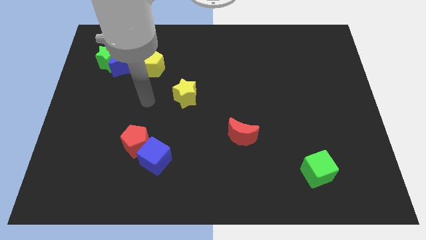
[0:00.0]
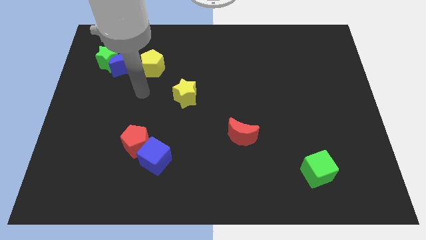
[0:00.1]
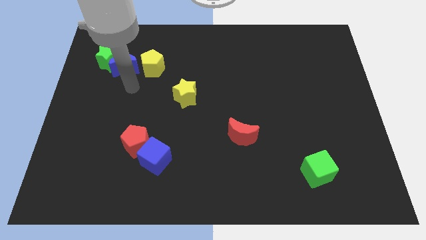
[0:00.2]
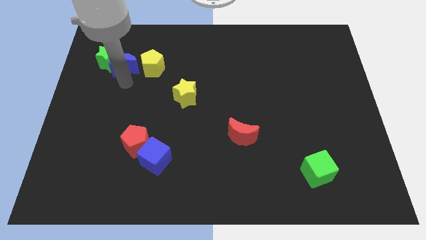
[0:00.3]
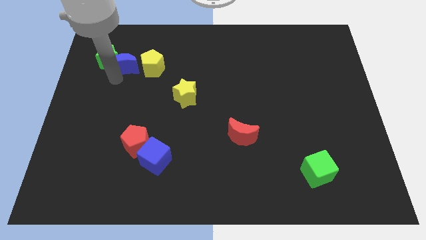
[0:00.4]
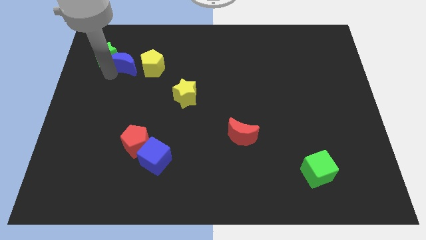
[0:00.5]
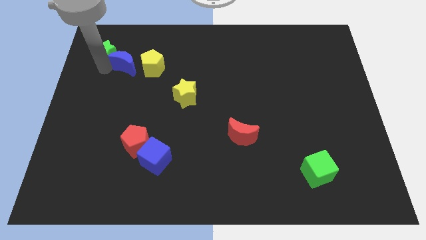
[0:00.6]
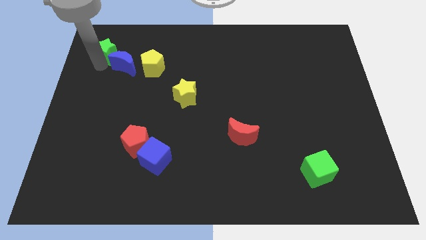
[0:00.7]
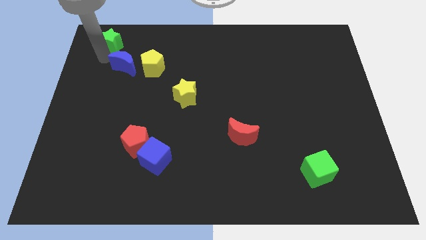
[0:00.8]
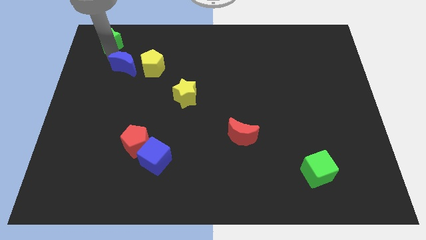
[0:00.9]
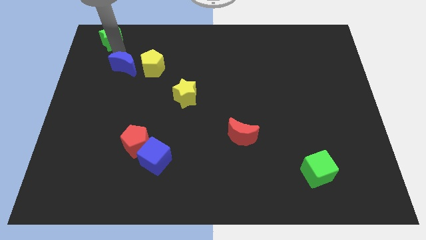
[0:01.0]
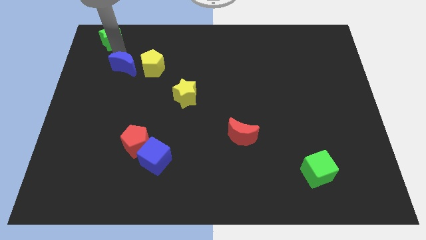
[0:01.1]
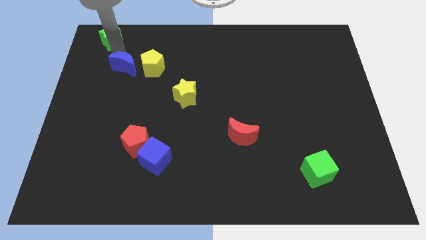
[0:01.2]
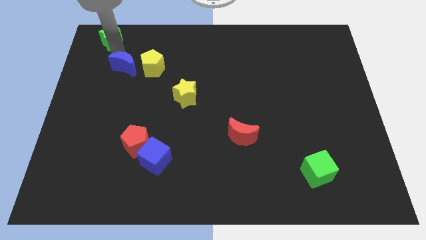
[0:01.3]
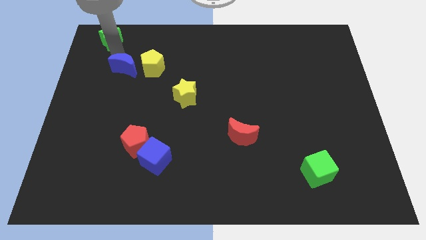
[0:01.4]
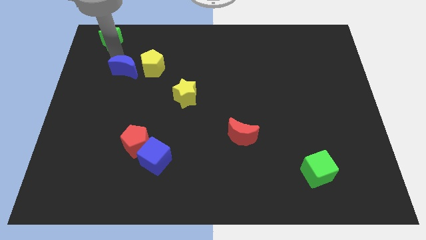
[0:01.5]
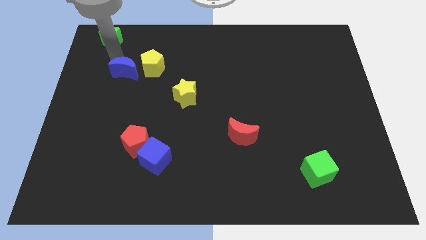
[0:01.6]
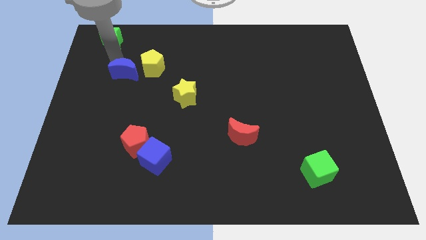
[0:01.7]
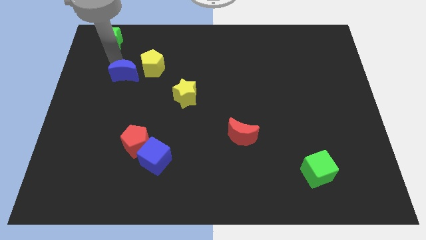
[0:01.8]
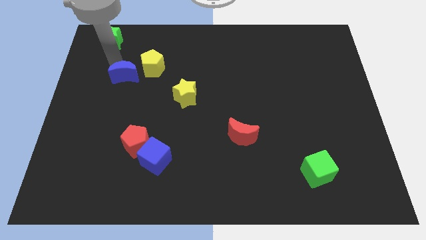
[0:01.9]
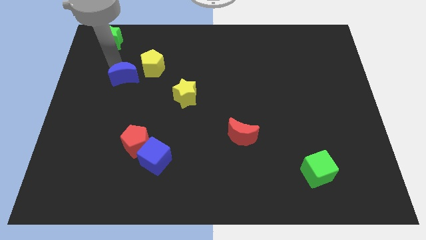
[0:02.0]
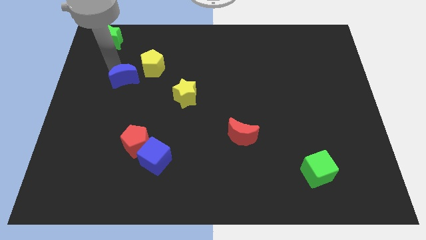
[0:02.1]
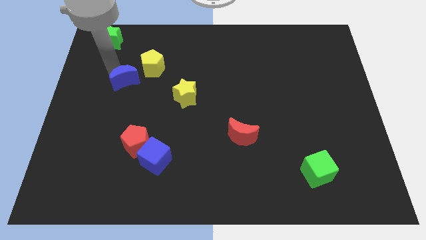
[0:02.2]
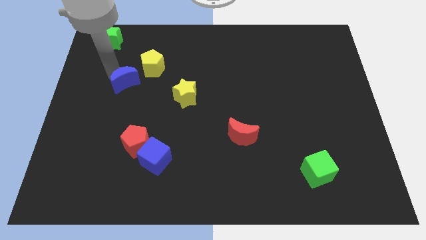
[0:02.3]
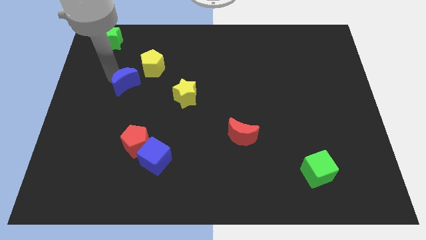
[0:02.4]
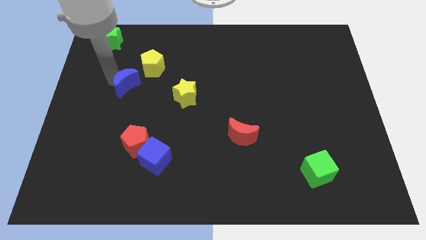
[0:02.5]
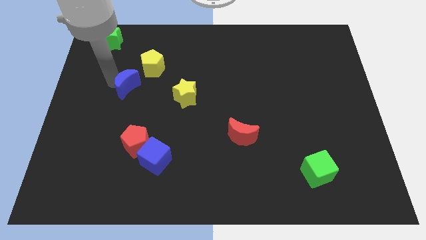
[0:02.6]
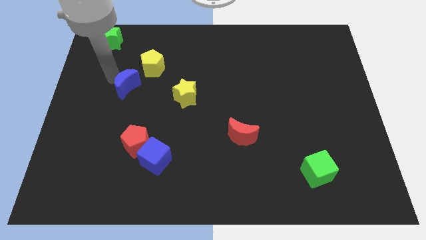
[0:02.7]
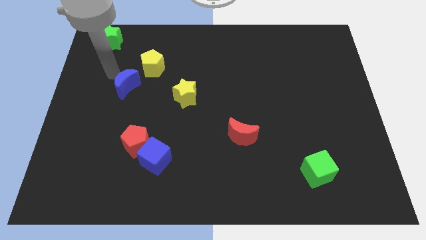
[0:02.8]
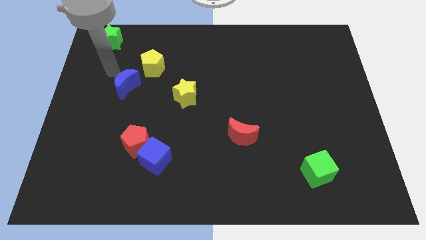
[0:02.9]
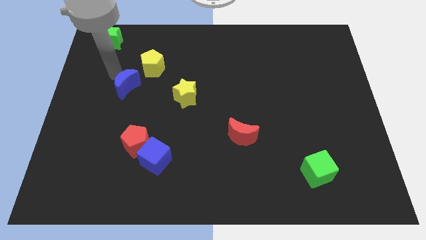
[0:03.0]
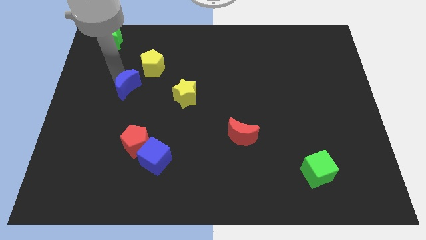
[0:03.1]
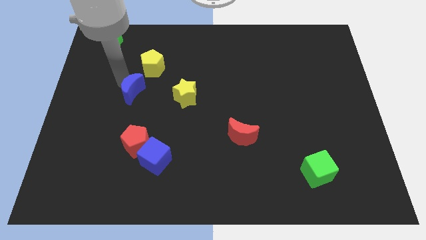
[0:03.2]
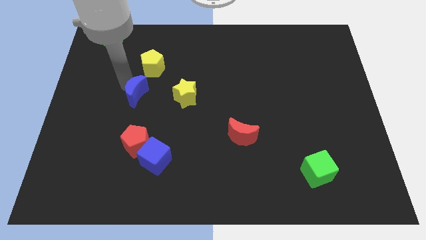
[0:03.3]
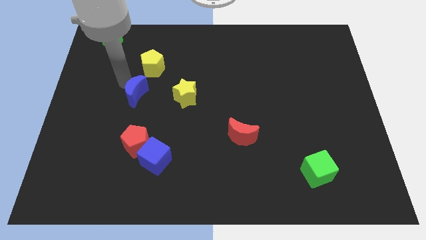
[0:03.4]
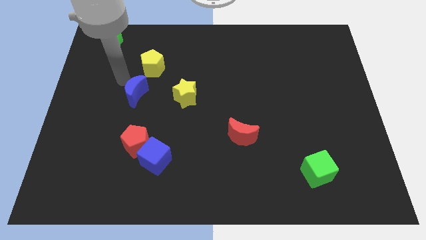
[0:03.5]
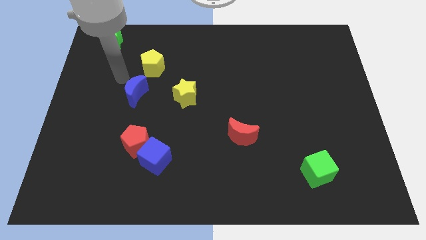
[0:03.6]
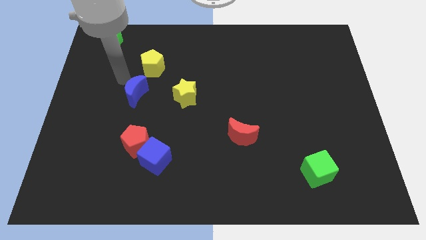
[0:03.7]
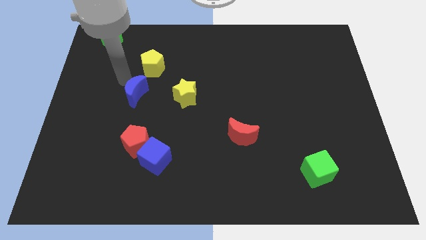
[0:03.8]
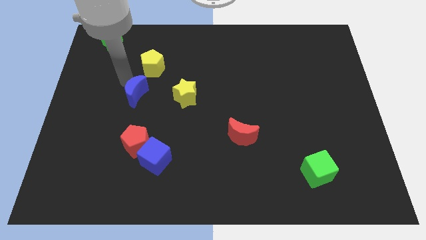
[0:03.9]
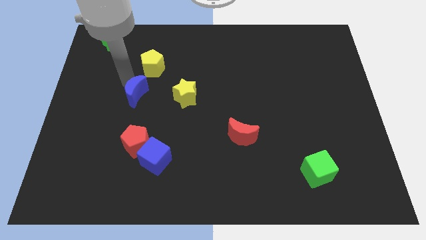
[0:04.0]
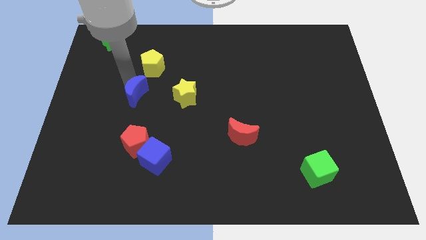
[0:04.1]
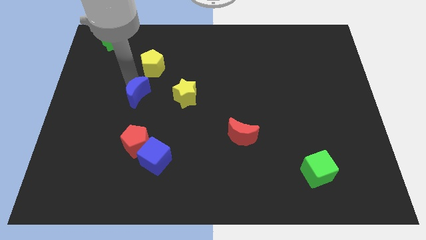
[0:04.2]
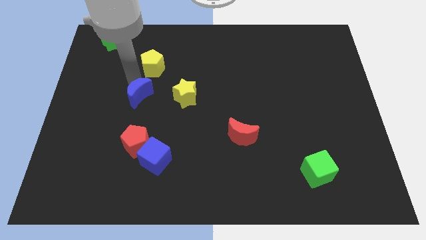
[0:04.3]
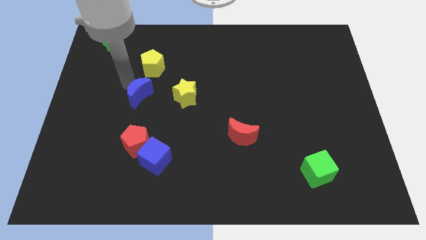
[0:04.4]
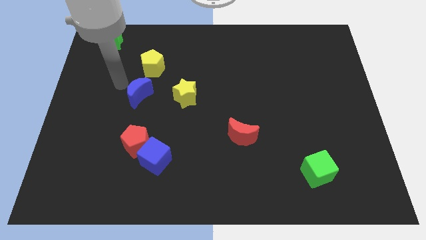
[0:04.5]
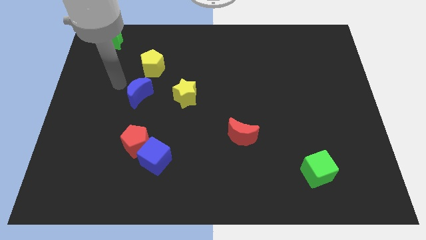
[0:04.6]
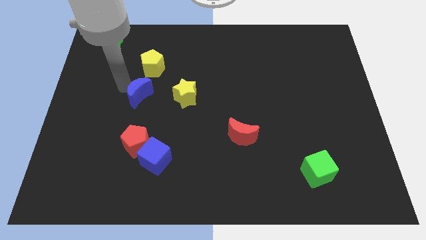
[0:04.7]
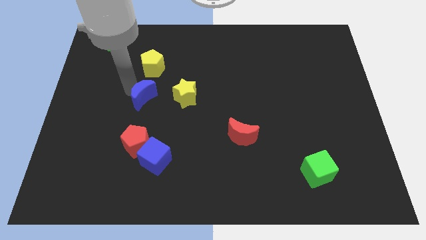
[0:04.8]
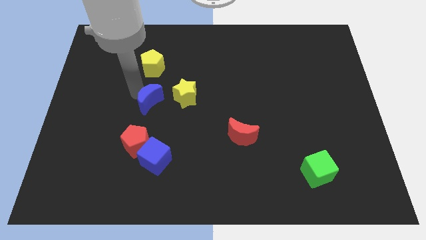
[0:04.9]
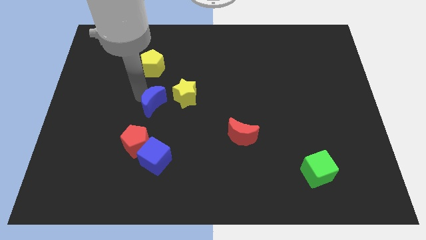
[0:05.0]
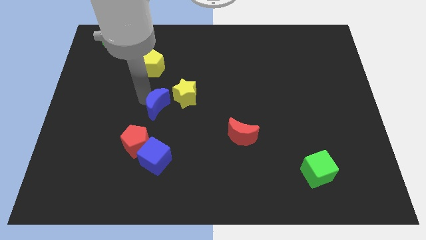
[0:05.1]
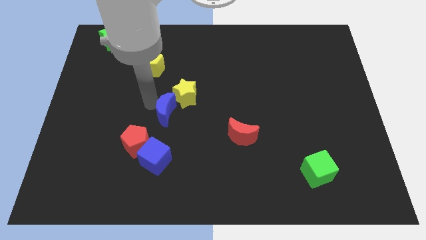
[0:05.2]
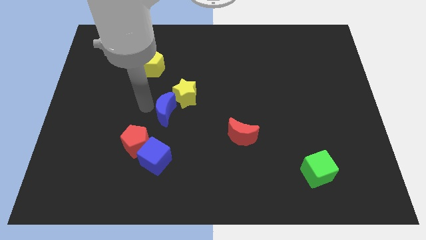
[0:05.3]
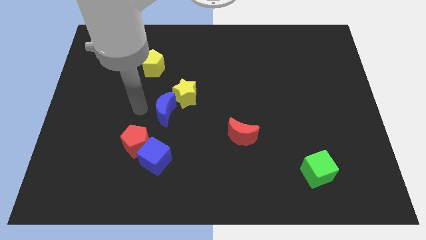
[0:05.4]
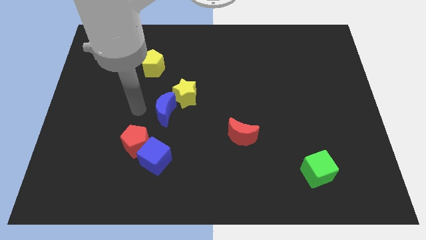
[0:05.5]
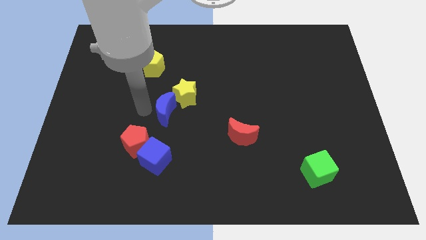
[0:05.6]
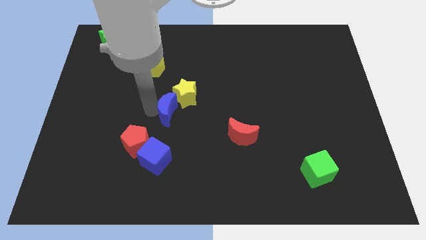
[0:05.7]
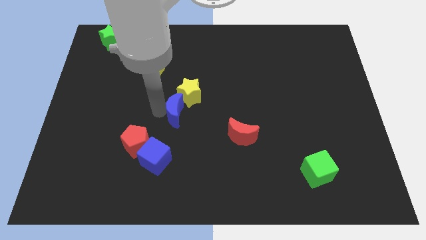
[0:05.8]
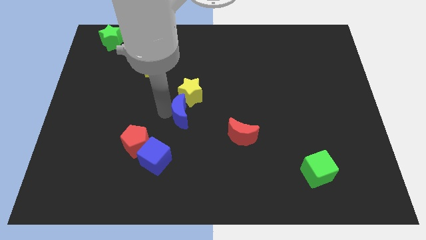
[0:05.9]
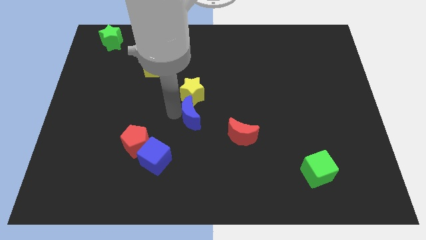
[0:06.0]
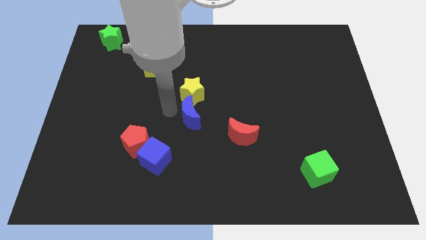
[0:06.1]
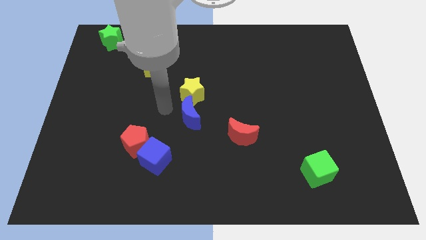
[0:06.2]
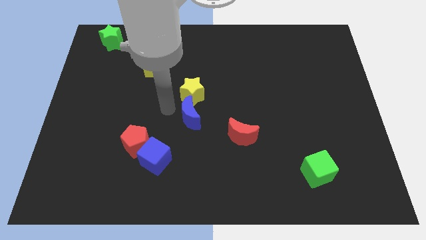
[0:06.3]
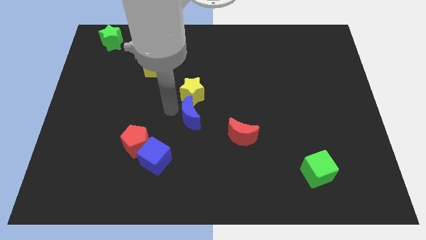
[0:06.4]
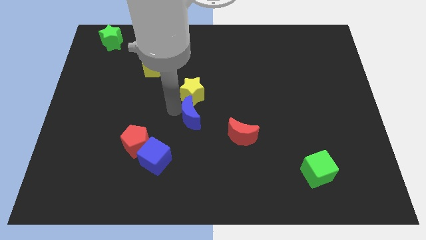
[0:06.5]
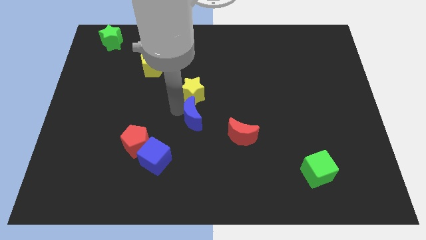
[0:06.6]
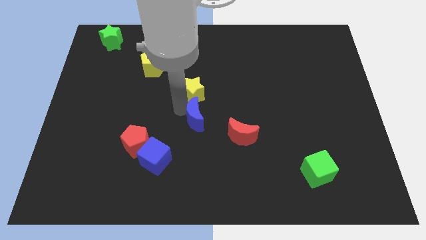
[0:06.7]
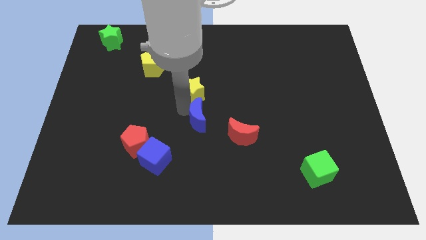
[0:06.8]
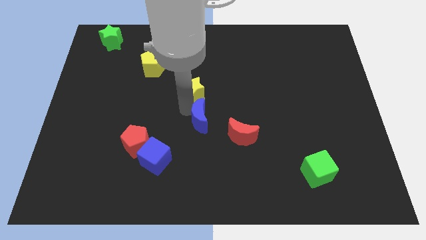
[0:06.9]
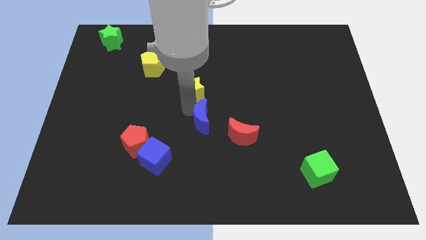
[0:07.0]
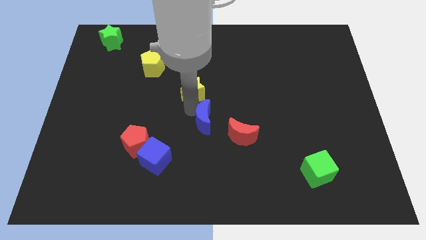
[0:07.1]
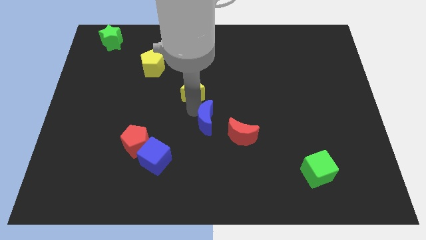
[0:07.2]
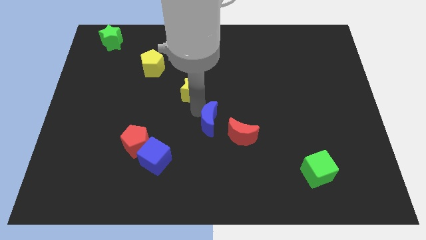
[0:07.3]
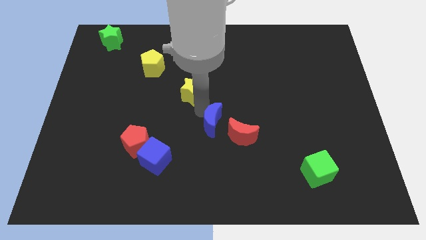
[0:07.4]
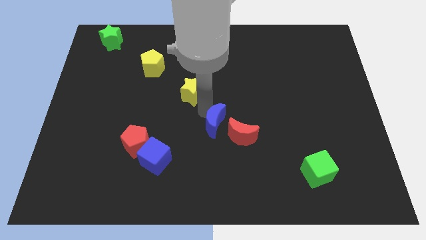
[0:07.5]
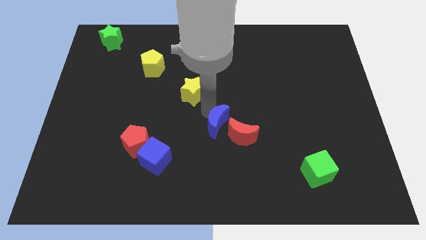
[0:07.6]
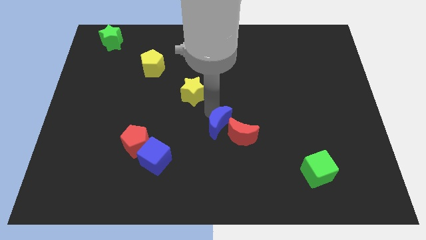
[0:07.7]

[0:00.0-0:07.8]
push the blue moon next to the red moon
